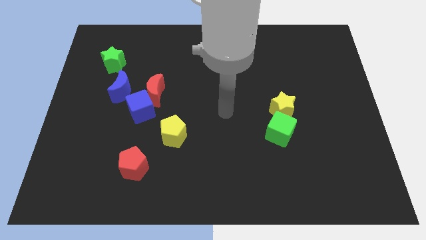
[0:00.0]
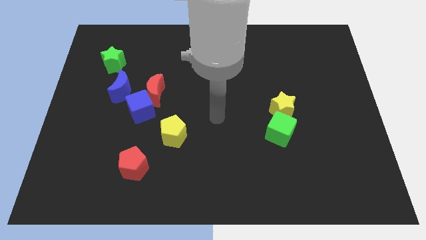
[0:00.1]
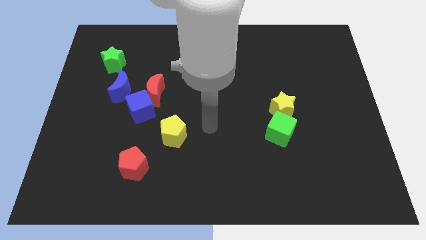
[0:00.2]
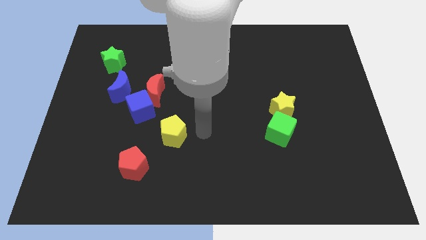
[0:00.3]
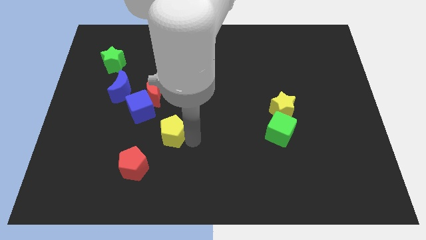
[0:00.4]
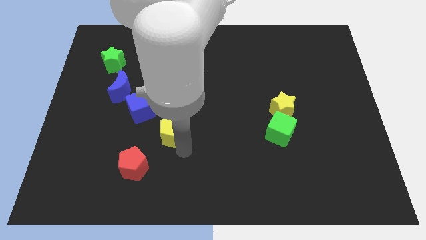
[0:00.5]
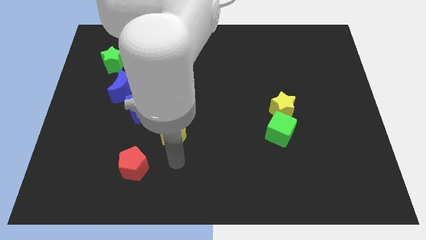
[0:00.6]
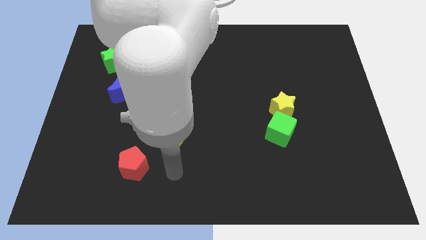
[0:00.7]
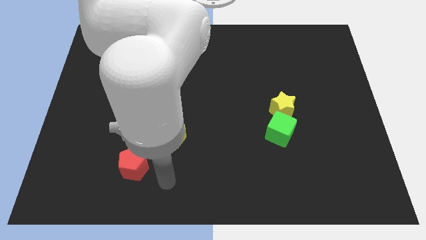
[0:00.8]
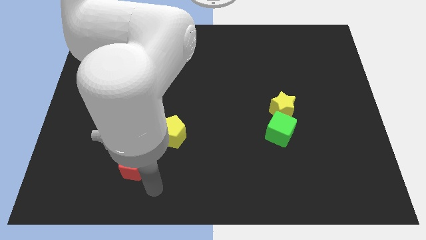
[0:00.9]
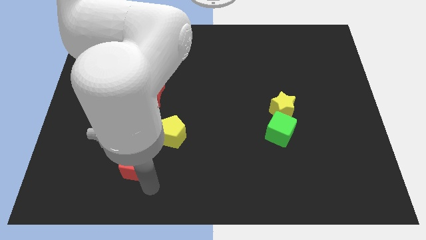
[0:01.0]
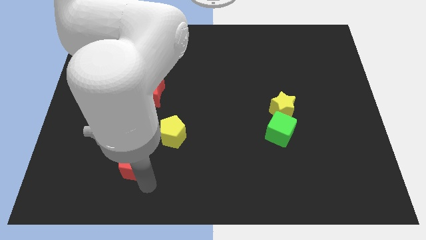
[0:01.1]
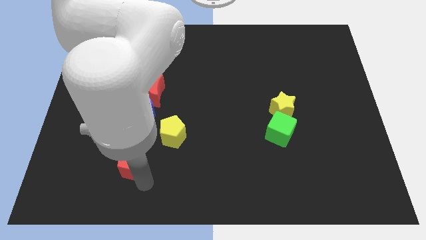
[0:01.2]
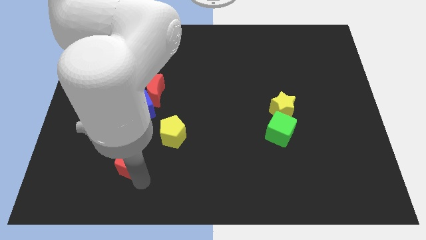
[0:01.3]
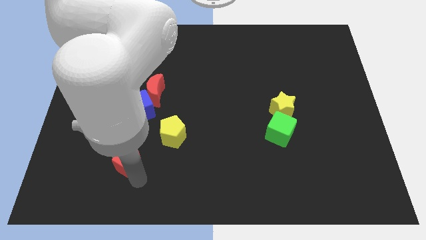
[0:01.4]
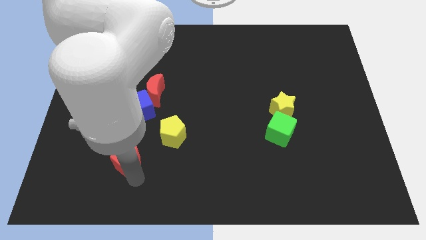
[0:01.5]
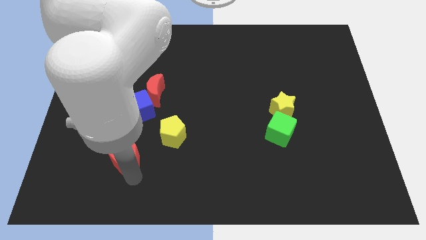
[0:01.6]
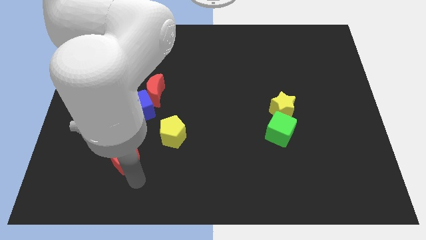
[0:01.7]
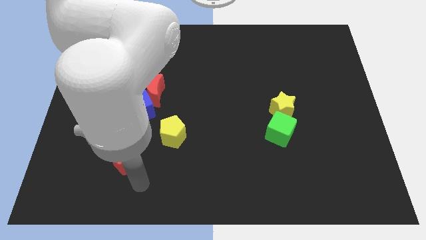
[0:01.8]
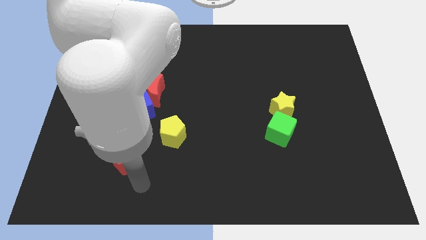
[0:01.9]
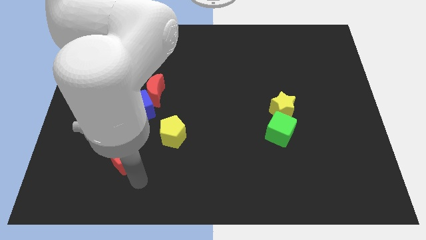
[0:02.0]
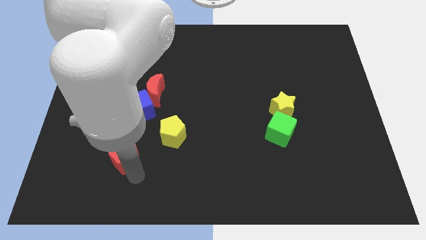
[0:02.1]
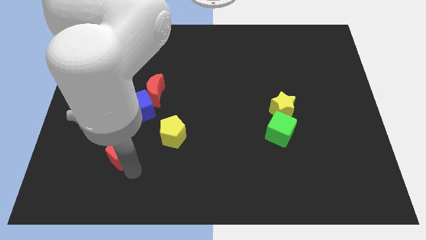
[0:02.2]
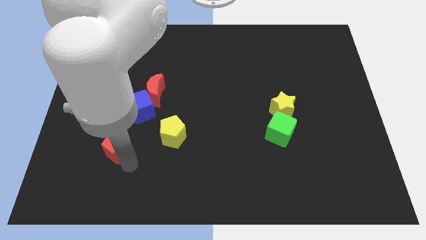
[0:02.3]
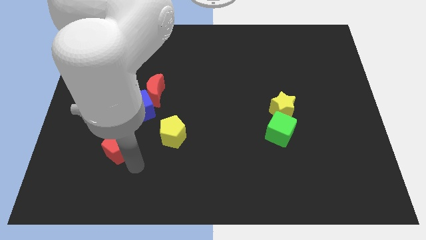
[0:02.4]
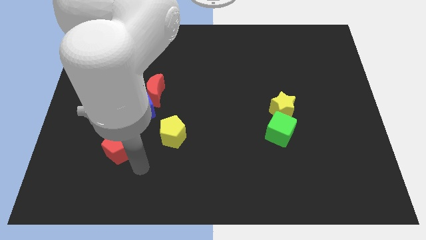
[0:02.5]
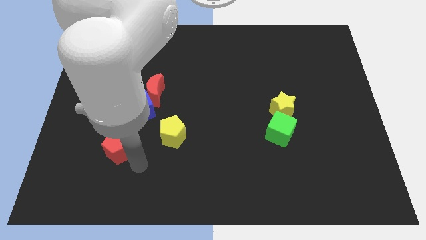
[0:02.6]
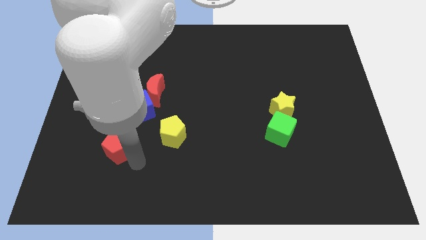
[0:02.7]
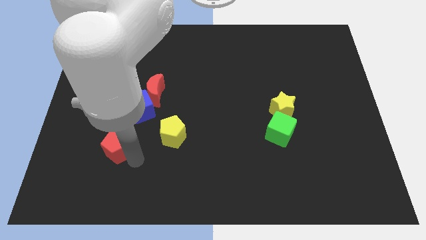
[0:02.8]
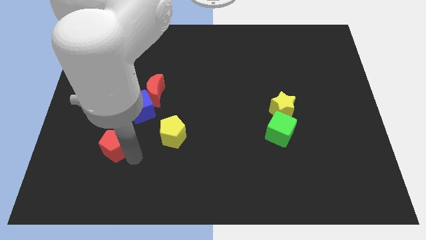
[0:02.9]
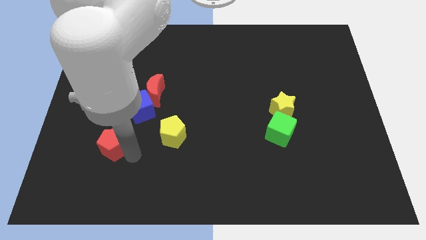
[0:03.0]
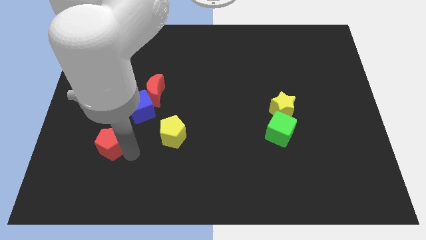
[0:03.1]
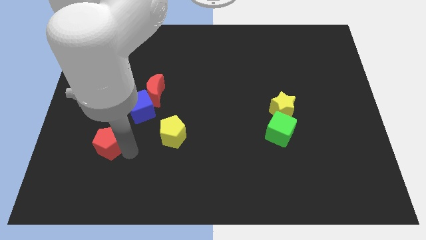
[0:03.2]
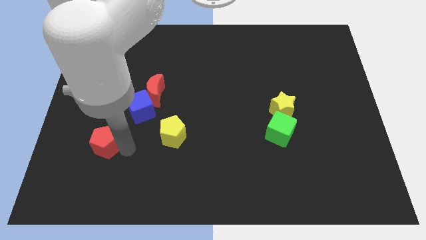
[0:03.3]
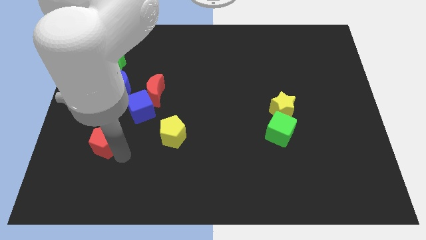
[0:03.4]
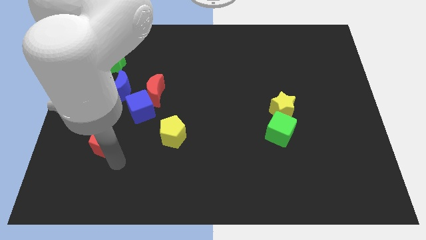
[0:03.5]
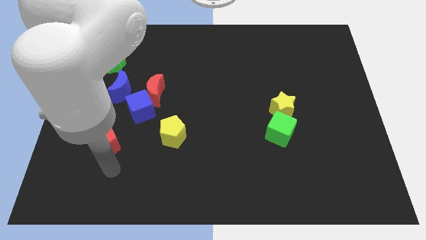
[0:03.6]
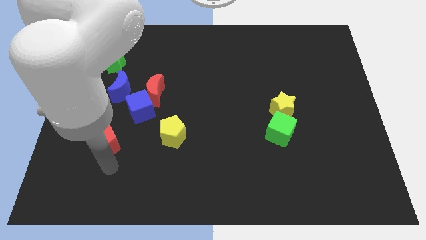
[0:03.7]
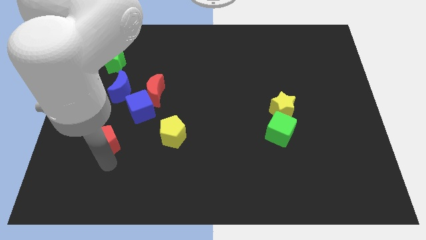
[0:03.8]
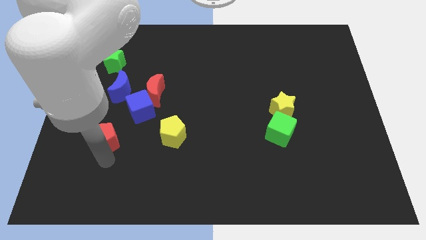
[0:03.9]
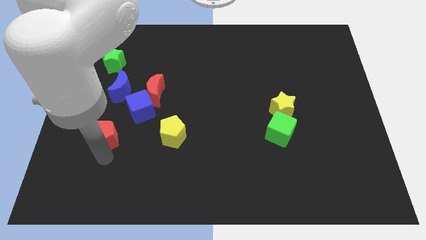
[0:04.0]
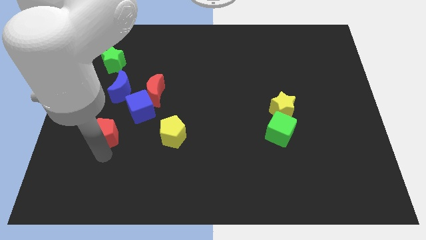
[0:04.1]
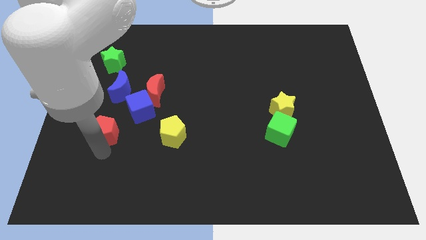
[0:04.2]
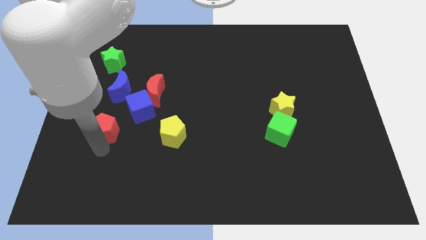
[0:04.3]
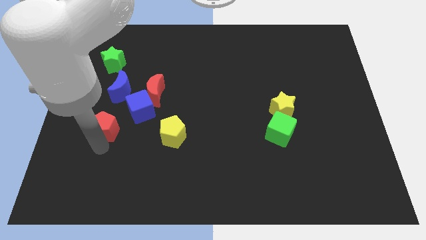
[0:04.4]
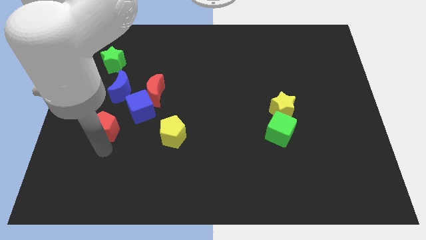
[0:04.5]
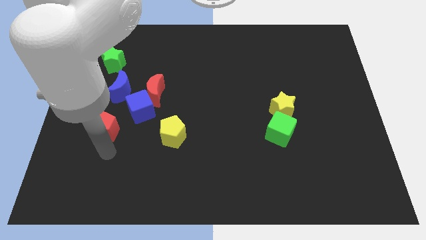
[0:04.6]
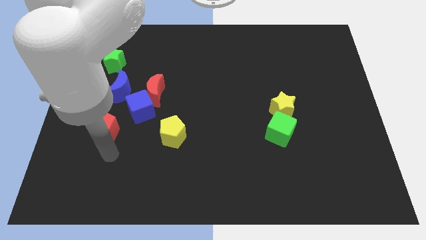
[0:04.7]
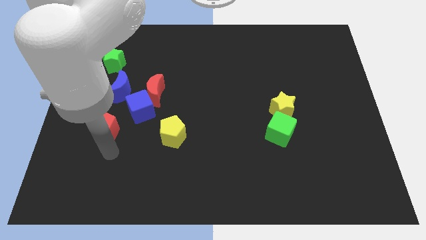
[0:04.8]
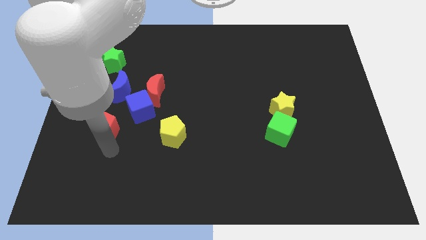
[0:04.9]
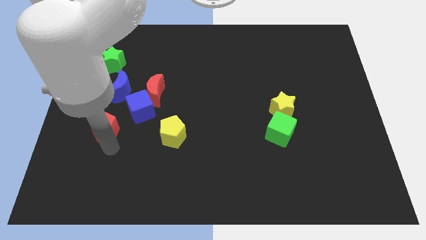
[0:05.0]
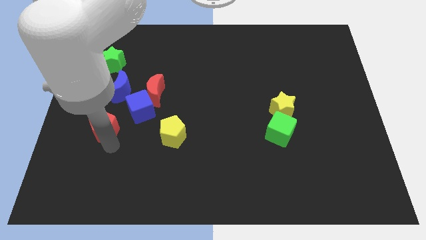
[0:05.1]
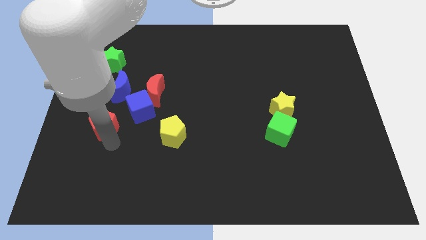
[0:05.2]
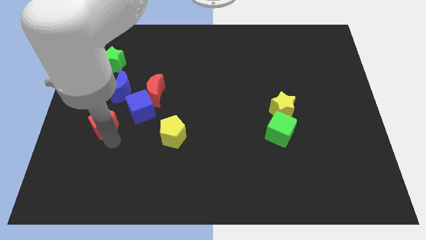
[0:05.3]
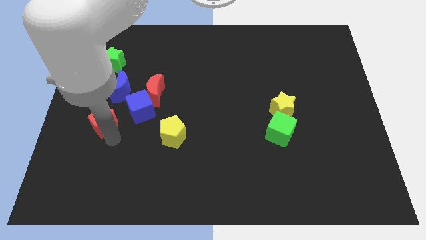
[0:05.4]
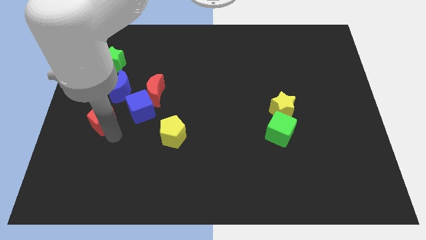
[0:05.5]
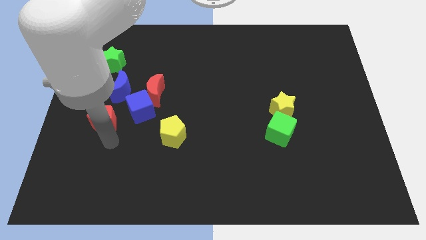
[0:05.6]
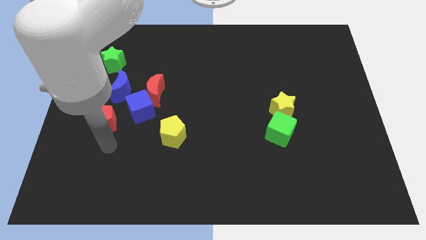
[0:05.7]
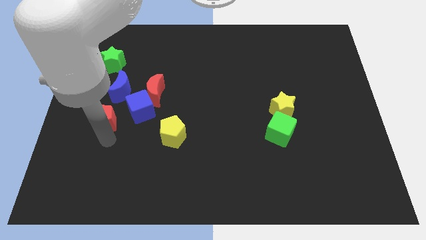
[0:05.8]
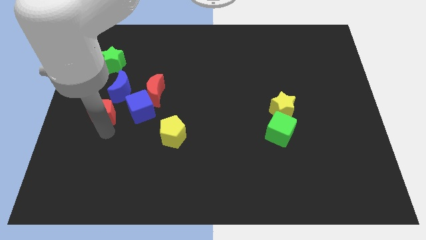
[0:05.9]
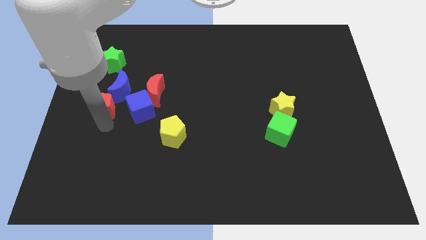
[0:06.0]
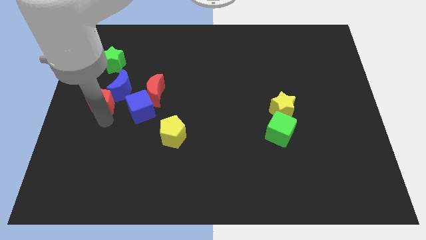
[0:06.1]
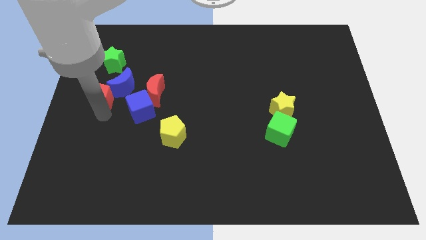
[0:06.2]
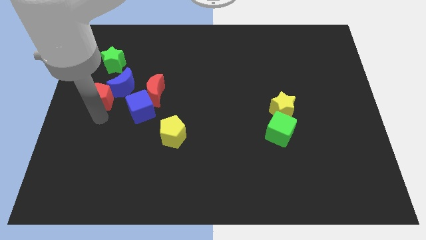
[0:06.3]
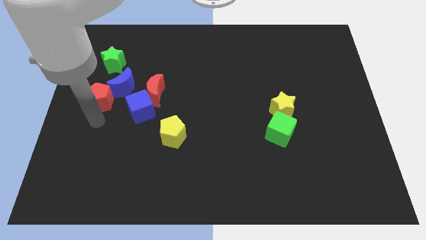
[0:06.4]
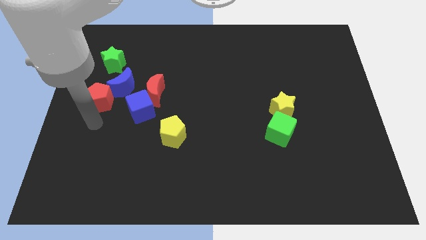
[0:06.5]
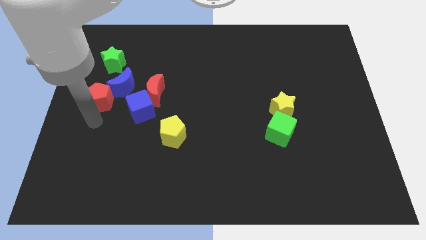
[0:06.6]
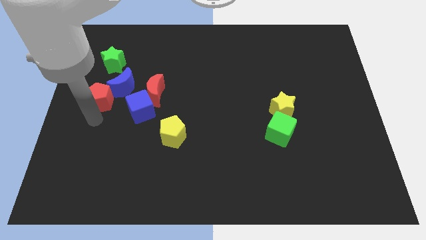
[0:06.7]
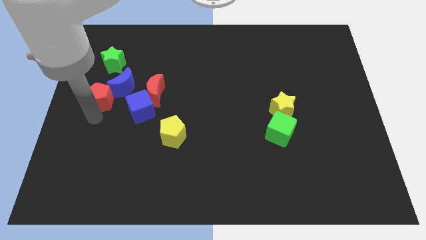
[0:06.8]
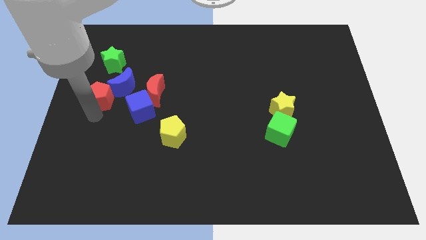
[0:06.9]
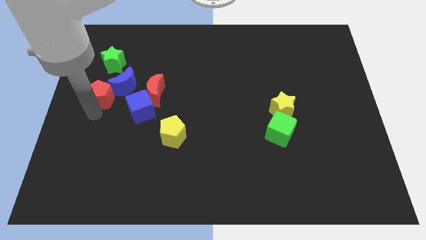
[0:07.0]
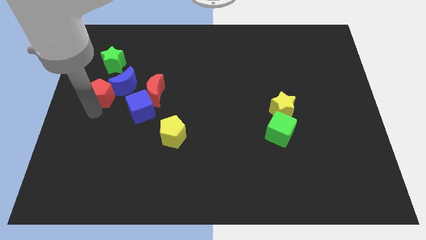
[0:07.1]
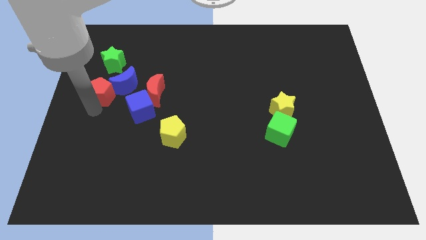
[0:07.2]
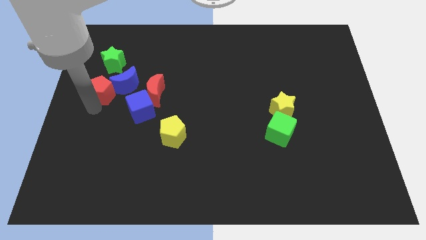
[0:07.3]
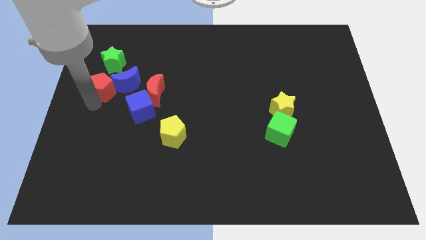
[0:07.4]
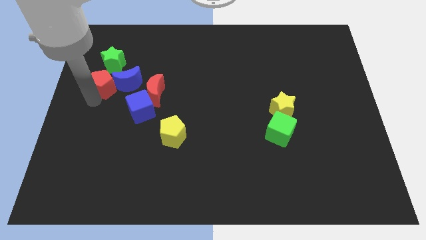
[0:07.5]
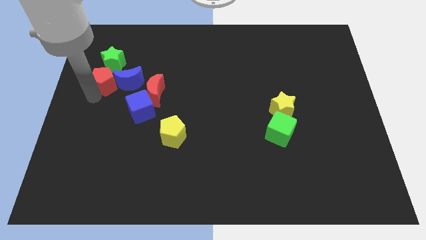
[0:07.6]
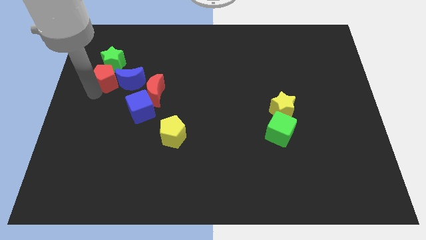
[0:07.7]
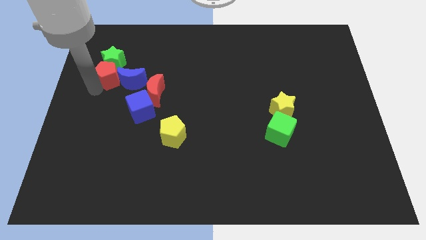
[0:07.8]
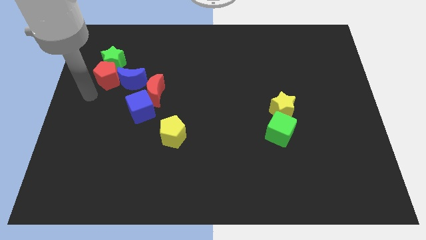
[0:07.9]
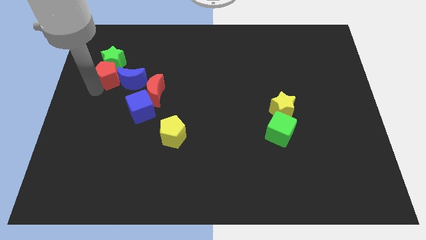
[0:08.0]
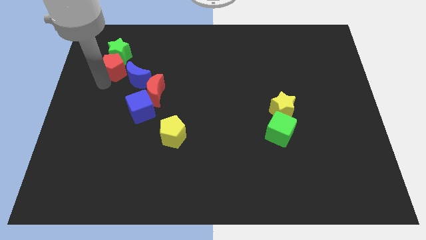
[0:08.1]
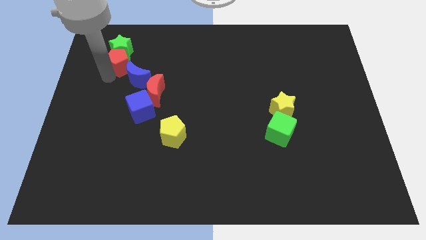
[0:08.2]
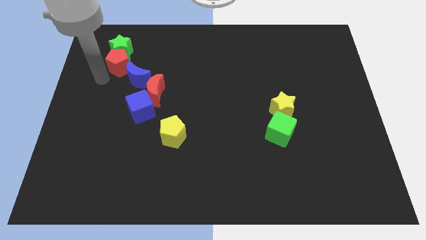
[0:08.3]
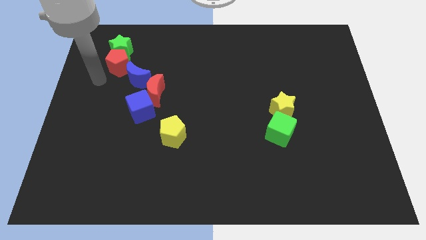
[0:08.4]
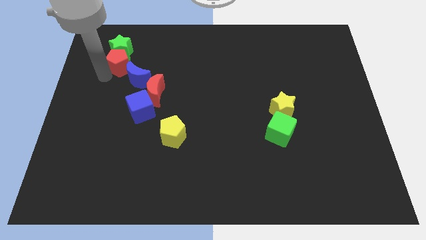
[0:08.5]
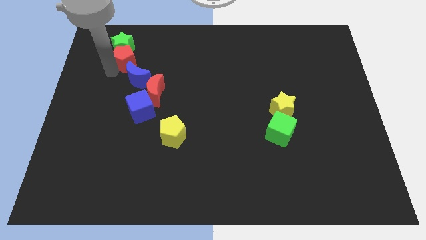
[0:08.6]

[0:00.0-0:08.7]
put the red pentagon above the blue moon
